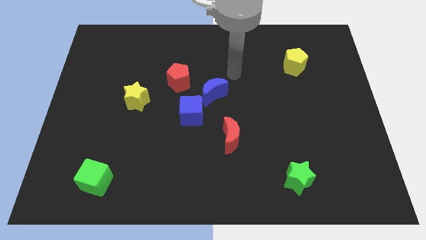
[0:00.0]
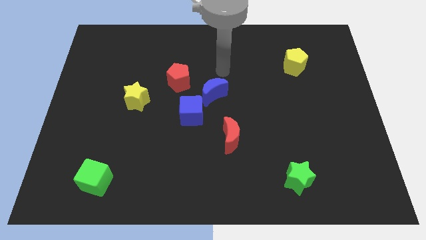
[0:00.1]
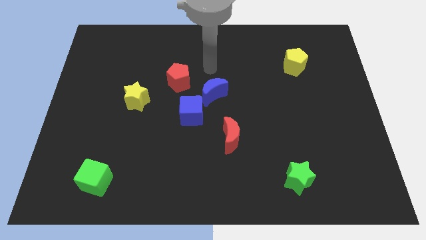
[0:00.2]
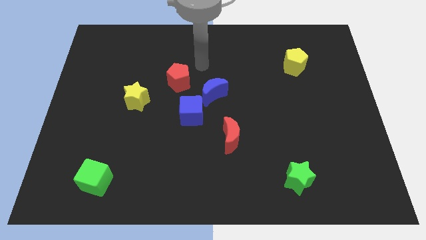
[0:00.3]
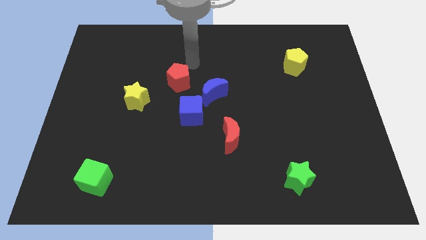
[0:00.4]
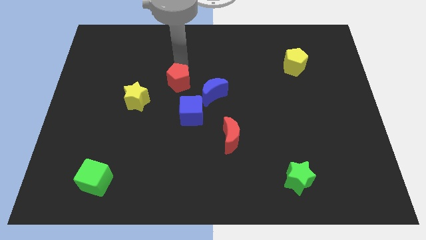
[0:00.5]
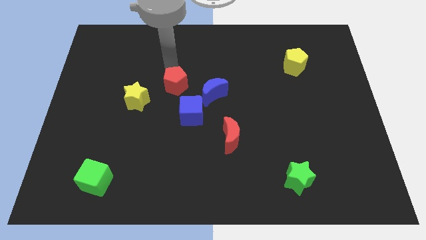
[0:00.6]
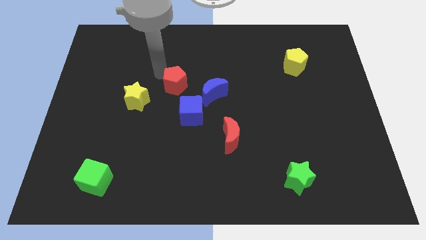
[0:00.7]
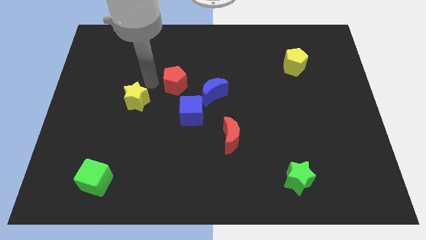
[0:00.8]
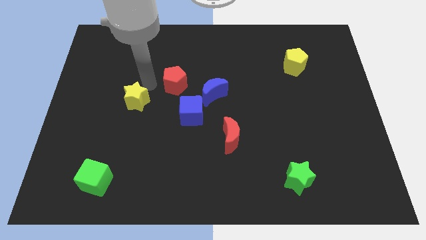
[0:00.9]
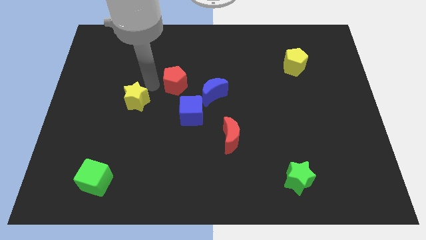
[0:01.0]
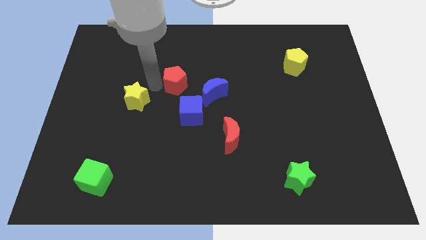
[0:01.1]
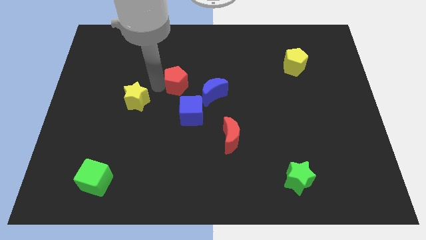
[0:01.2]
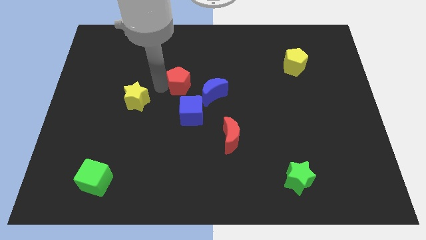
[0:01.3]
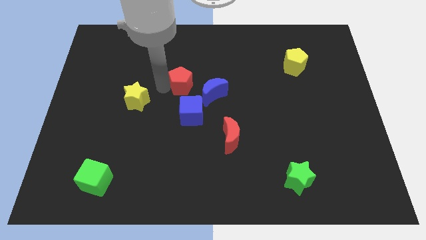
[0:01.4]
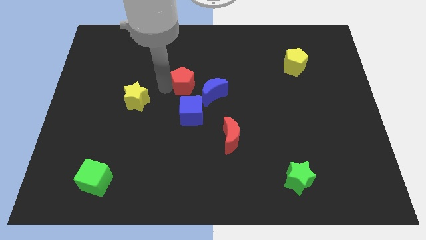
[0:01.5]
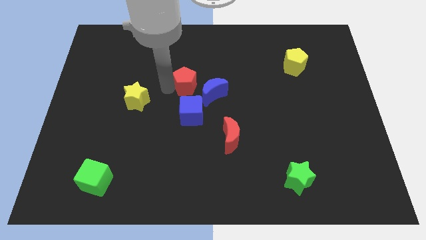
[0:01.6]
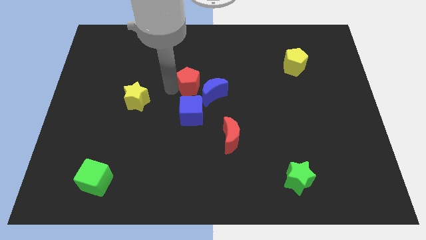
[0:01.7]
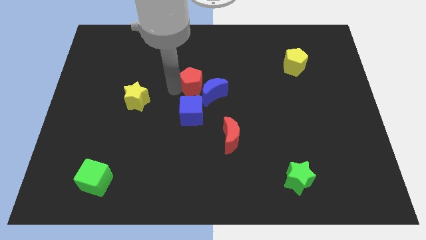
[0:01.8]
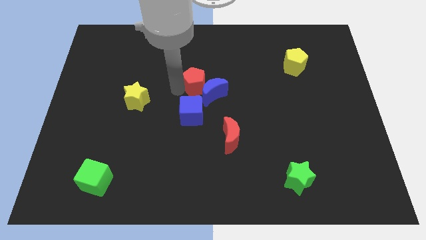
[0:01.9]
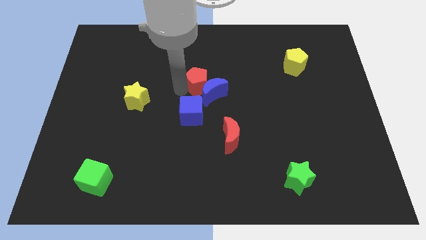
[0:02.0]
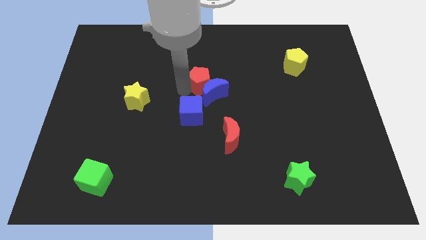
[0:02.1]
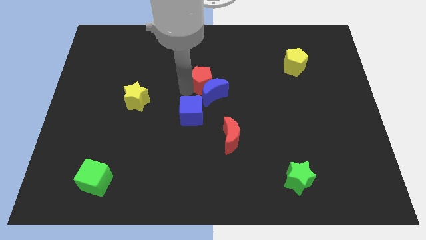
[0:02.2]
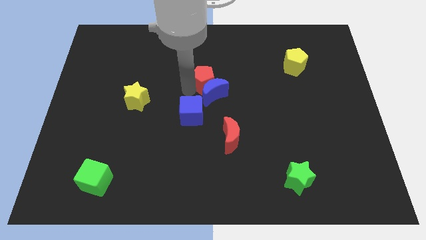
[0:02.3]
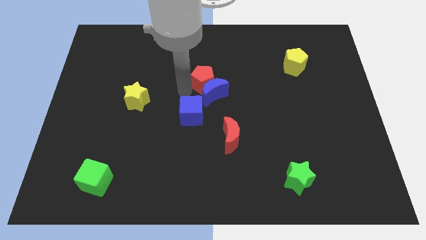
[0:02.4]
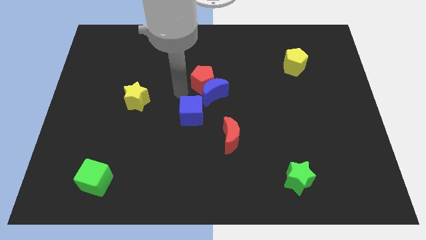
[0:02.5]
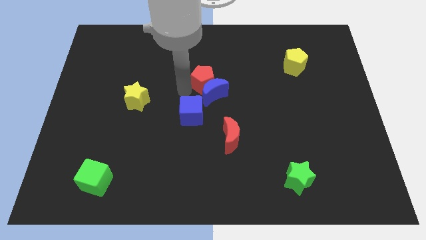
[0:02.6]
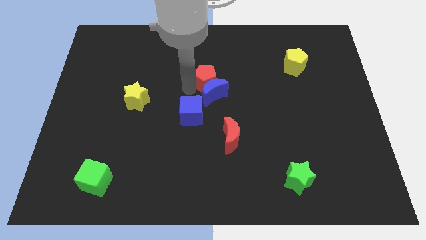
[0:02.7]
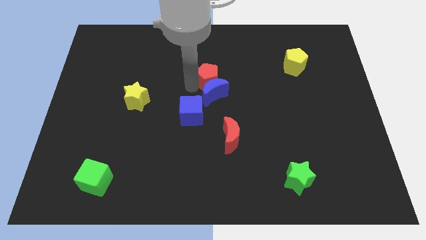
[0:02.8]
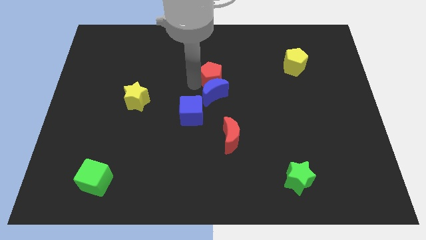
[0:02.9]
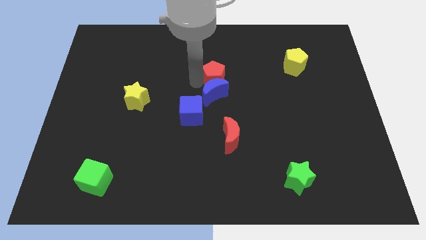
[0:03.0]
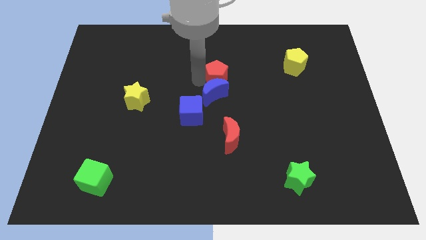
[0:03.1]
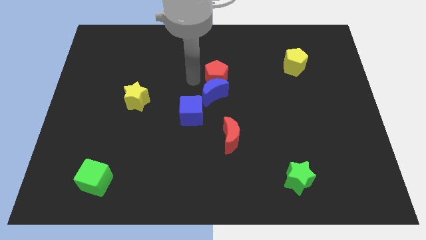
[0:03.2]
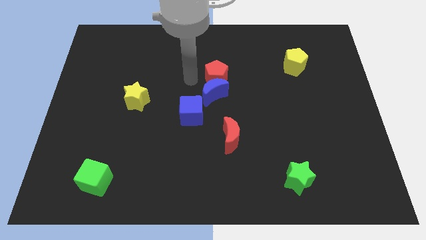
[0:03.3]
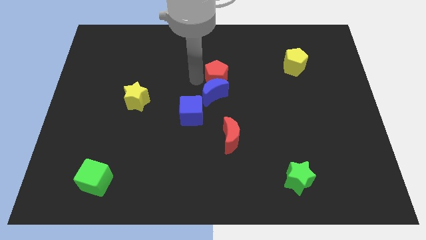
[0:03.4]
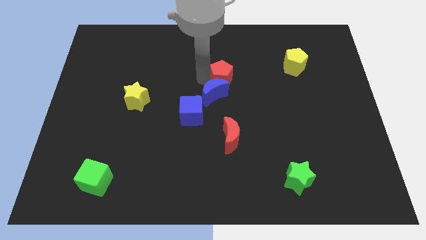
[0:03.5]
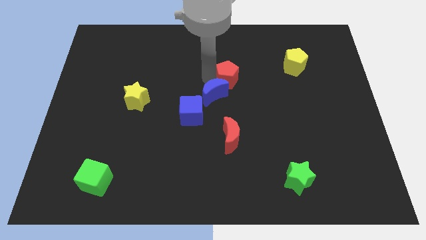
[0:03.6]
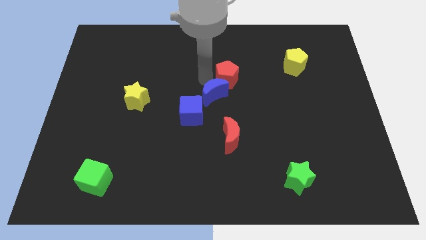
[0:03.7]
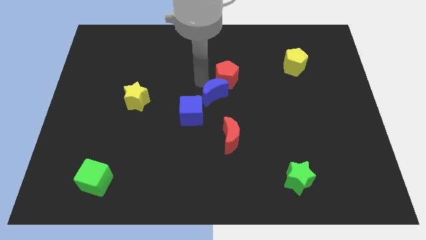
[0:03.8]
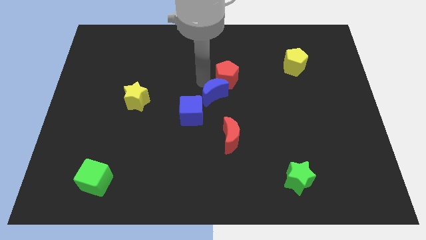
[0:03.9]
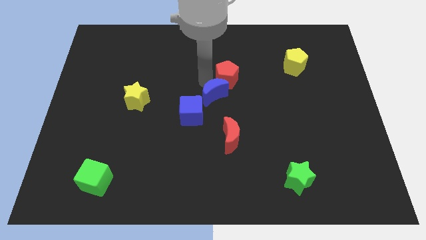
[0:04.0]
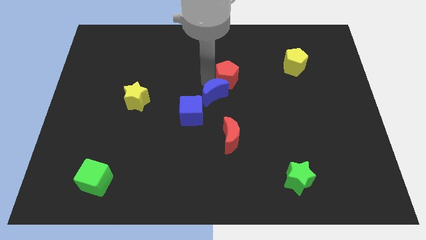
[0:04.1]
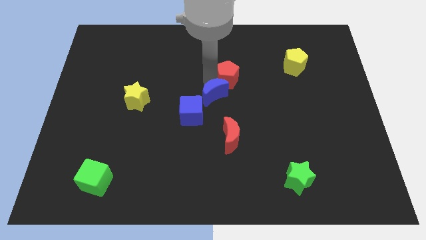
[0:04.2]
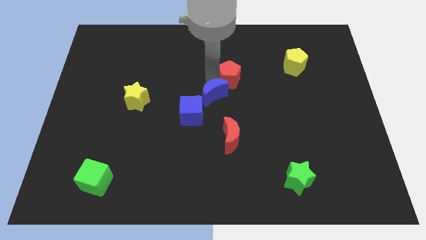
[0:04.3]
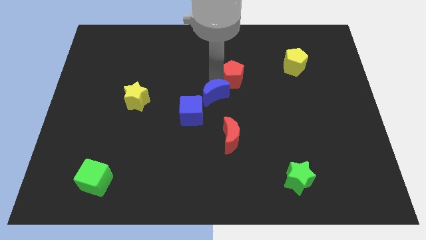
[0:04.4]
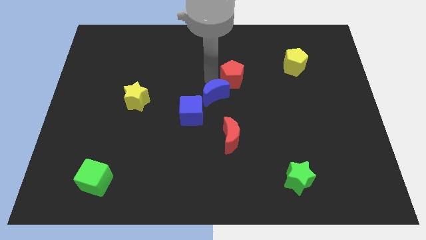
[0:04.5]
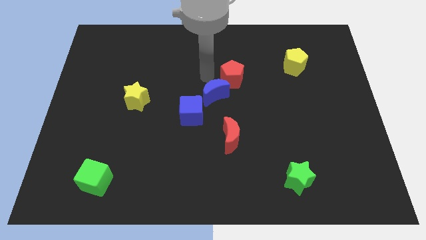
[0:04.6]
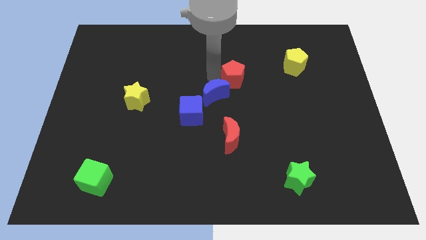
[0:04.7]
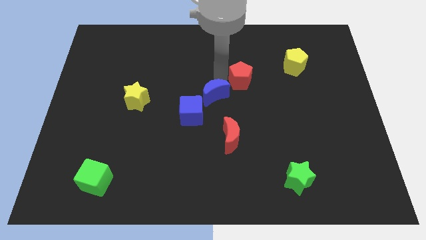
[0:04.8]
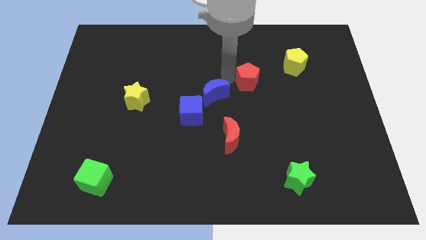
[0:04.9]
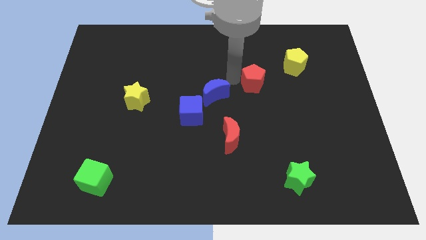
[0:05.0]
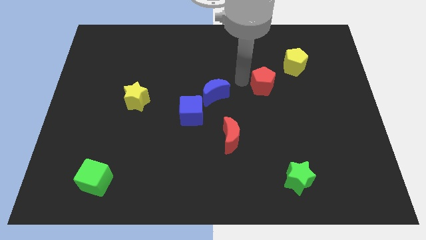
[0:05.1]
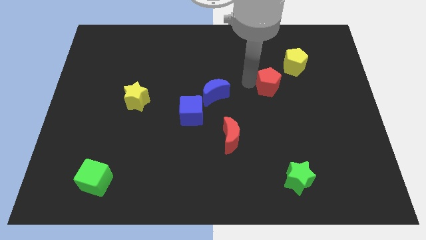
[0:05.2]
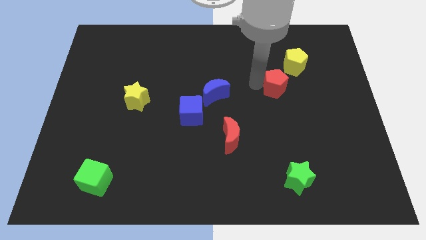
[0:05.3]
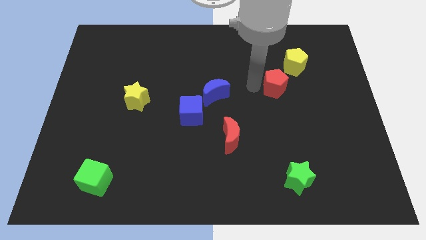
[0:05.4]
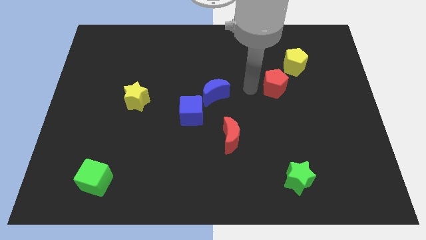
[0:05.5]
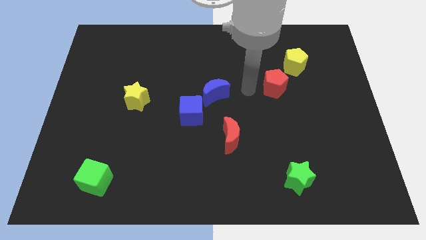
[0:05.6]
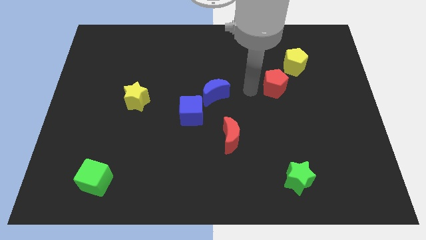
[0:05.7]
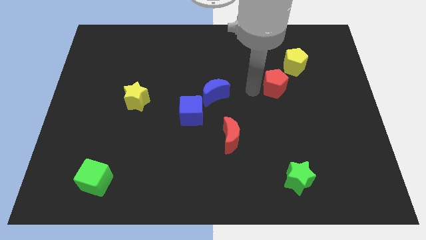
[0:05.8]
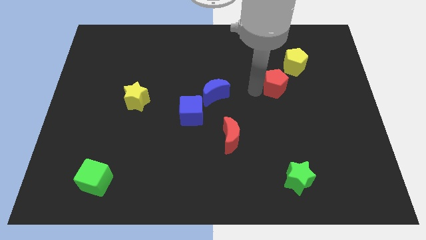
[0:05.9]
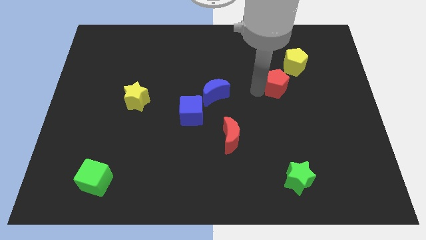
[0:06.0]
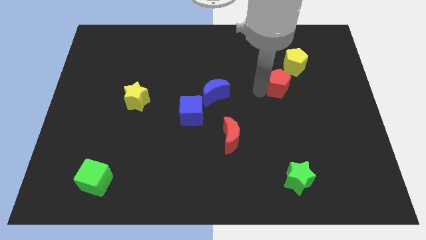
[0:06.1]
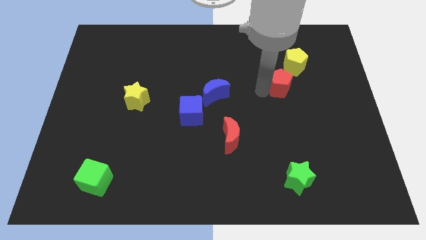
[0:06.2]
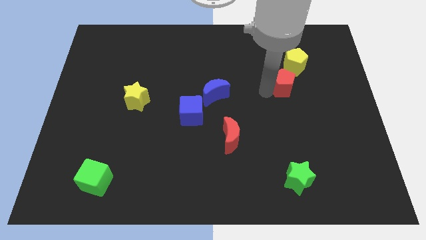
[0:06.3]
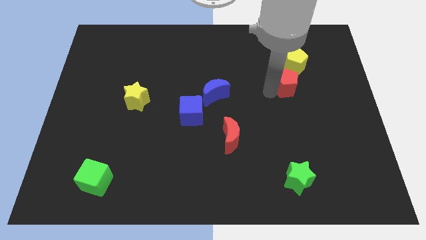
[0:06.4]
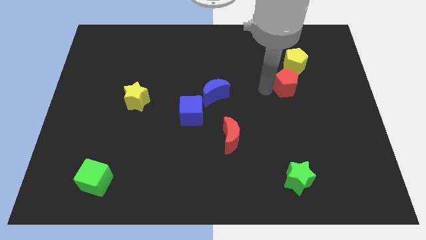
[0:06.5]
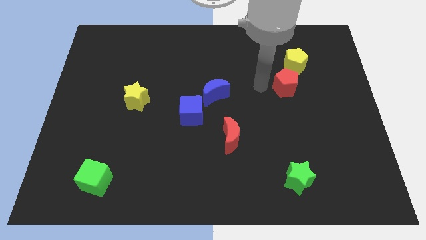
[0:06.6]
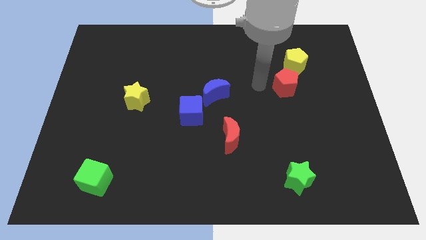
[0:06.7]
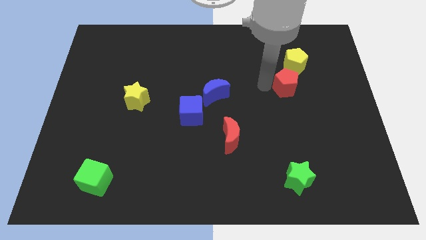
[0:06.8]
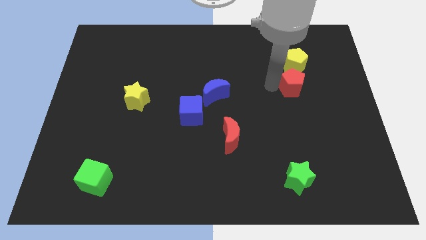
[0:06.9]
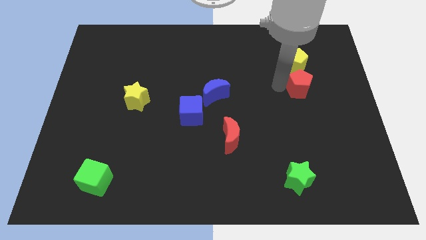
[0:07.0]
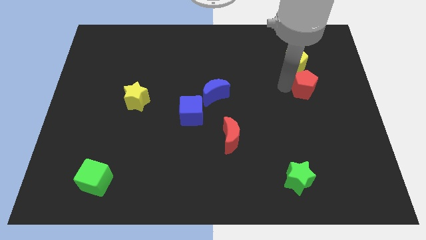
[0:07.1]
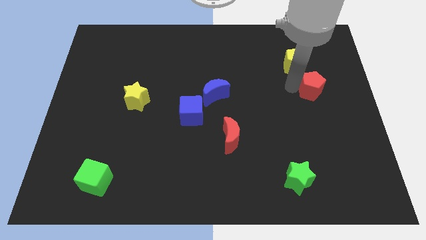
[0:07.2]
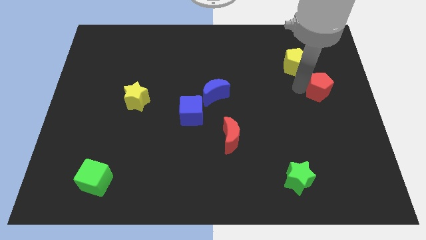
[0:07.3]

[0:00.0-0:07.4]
put the red pentagon to the right side of the board

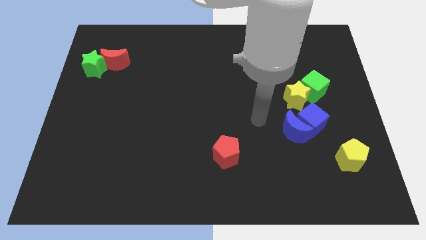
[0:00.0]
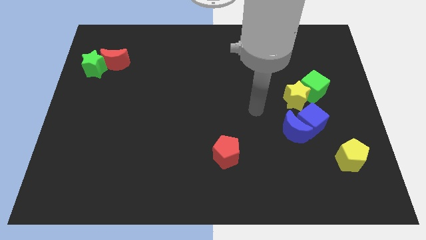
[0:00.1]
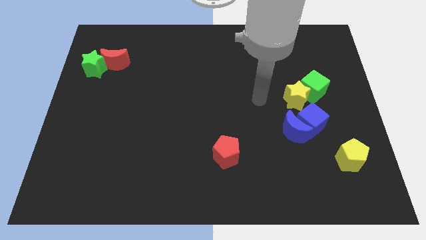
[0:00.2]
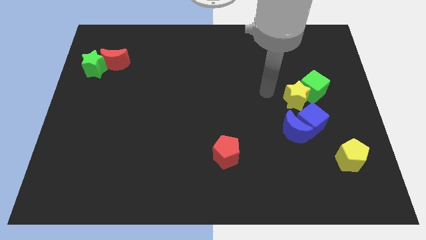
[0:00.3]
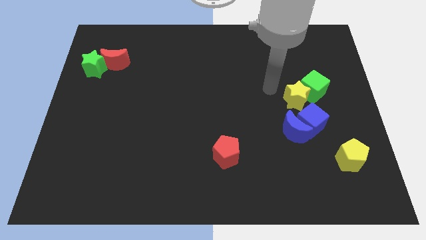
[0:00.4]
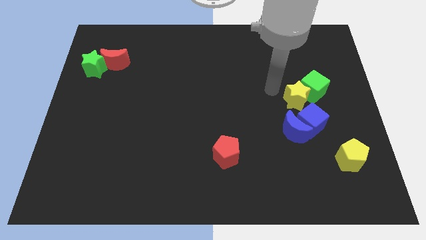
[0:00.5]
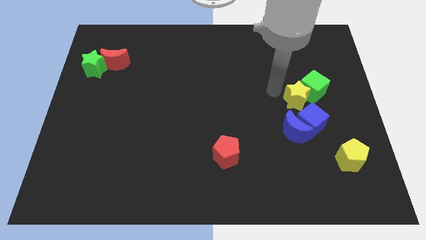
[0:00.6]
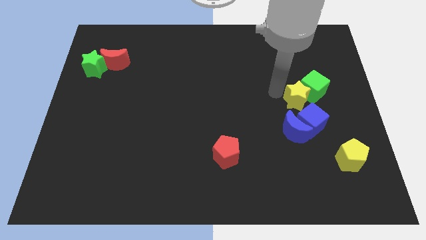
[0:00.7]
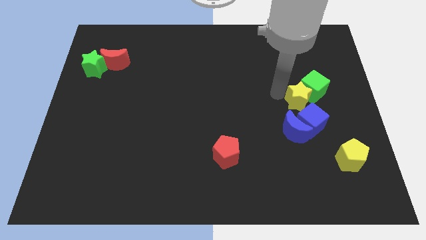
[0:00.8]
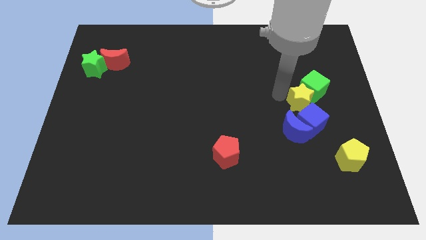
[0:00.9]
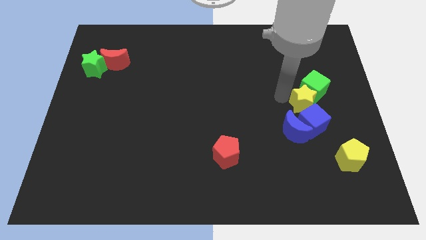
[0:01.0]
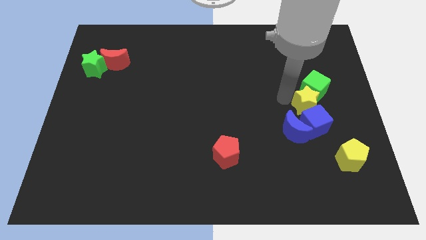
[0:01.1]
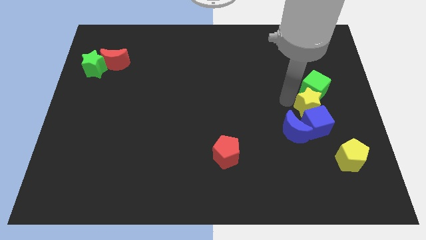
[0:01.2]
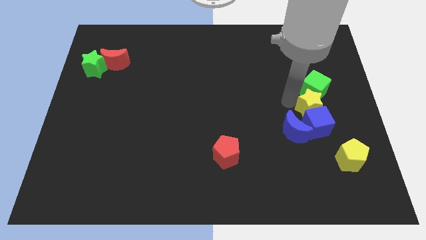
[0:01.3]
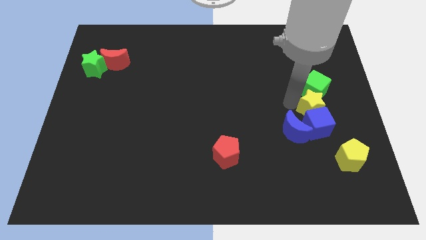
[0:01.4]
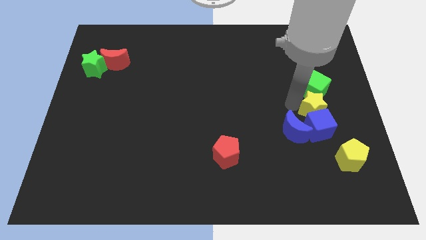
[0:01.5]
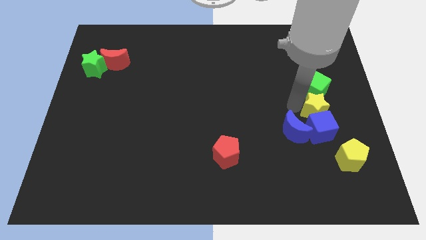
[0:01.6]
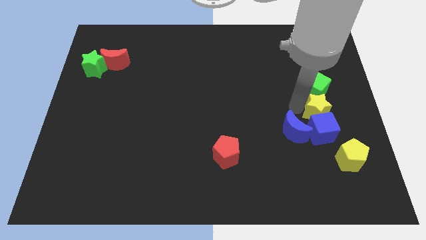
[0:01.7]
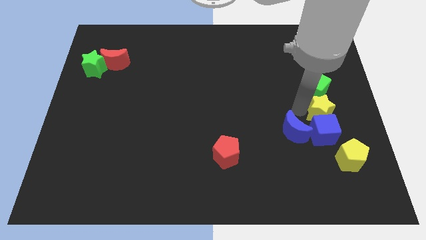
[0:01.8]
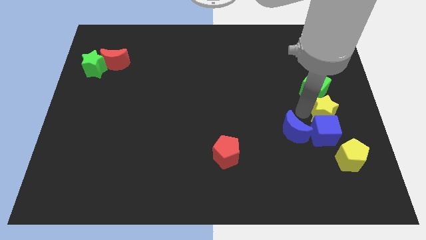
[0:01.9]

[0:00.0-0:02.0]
move the yellow star to the center right
